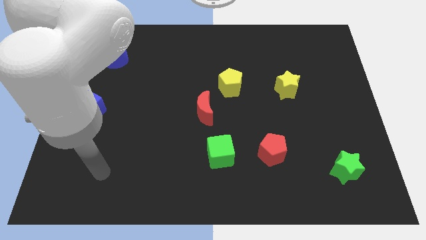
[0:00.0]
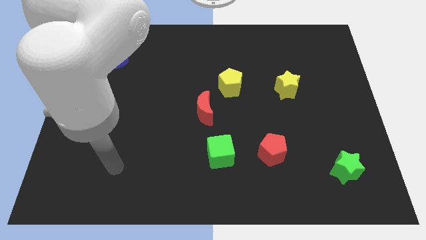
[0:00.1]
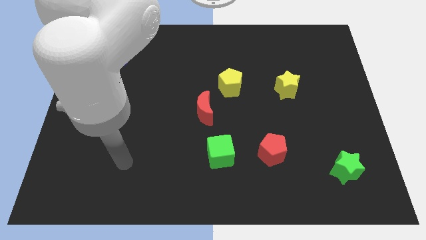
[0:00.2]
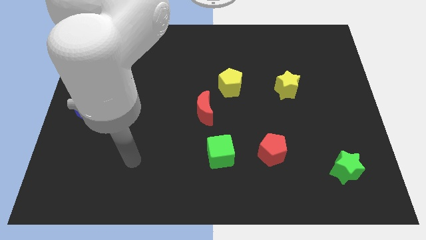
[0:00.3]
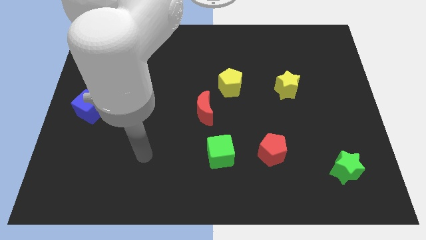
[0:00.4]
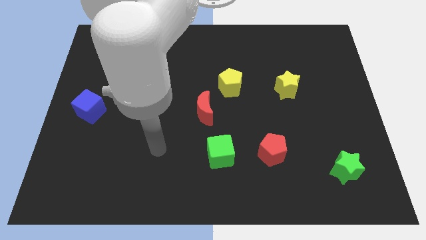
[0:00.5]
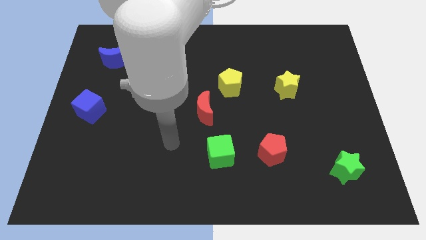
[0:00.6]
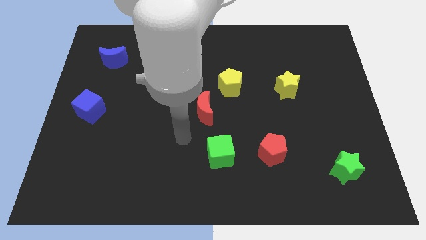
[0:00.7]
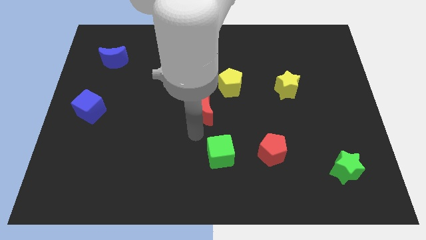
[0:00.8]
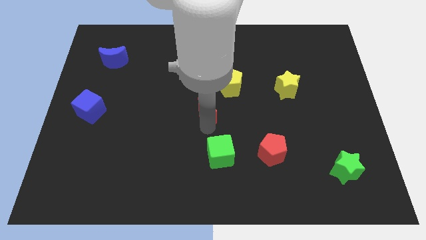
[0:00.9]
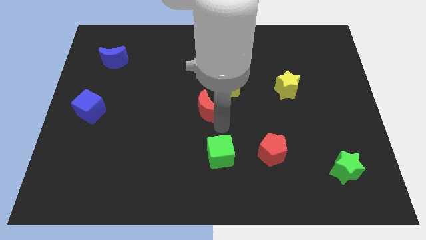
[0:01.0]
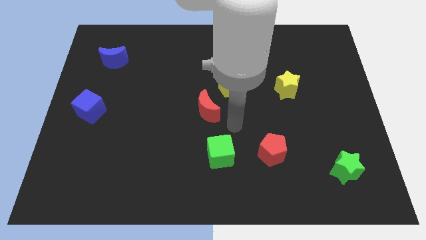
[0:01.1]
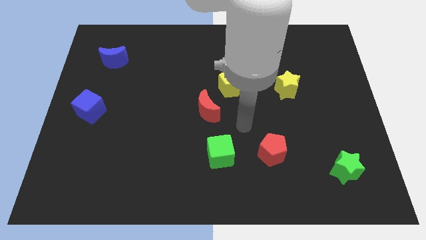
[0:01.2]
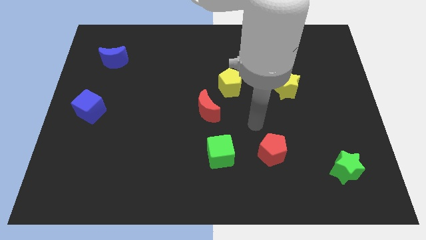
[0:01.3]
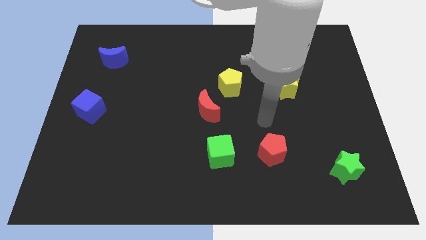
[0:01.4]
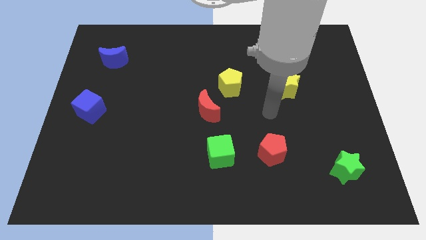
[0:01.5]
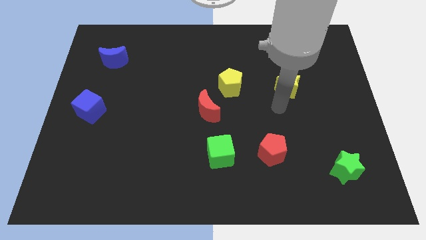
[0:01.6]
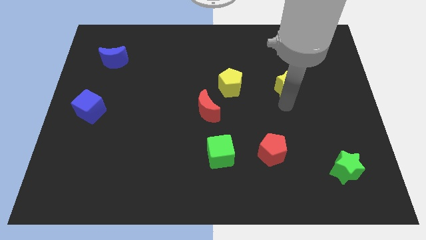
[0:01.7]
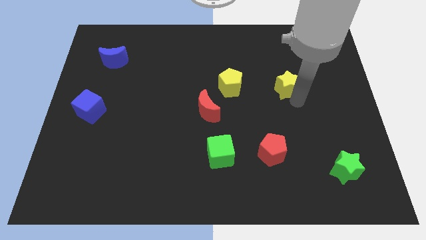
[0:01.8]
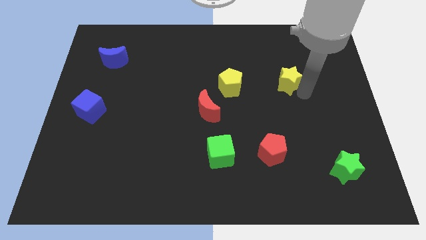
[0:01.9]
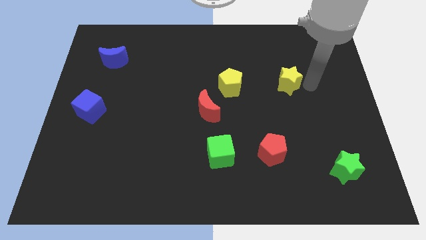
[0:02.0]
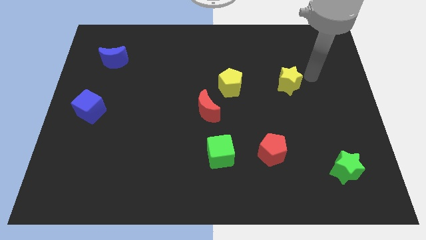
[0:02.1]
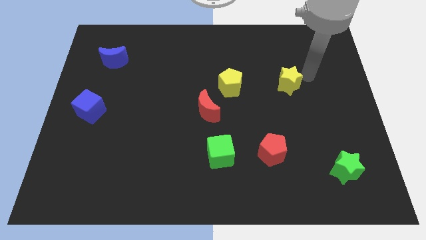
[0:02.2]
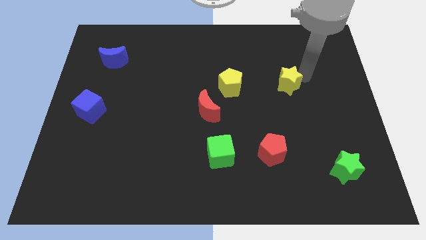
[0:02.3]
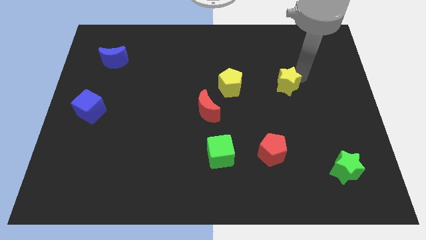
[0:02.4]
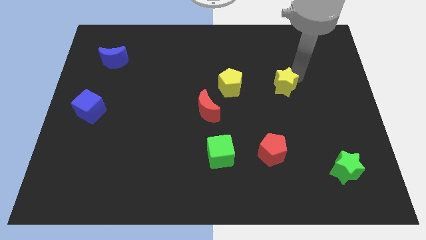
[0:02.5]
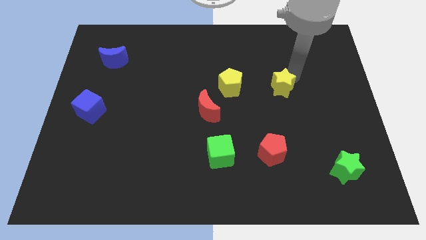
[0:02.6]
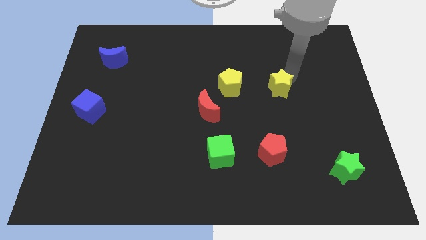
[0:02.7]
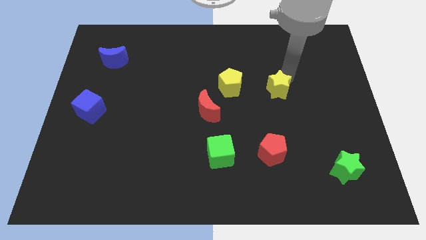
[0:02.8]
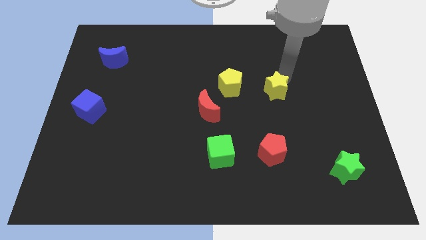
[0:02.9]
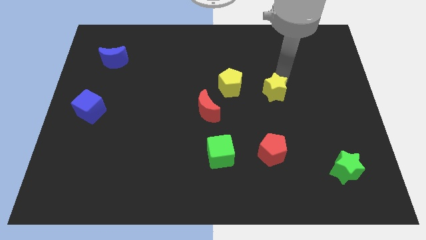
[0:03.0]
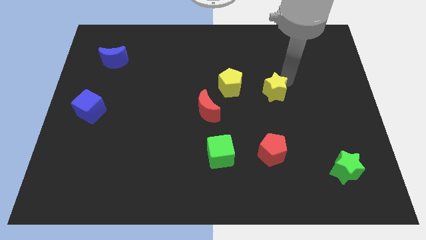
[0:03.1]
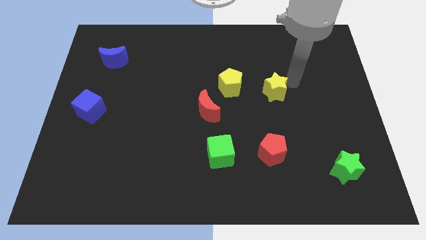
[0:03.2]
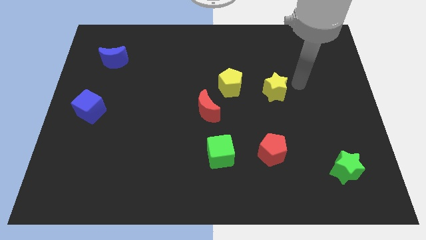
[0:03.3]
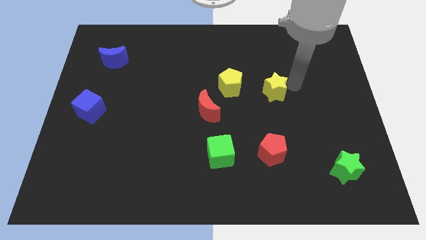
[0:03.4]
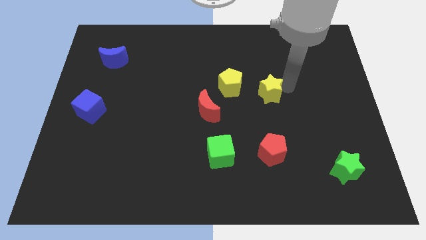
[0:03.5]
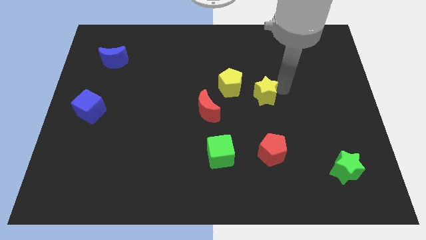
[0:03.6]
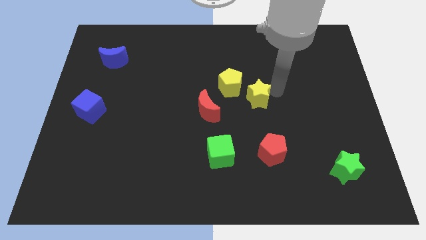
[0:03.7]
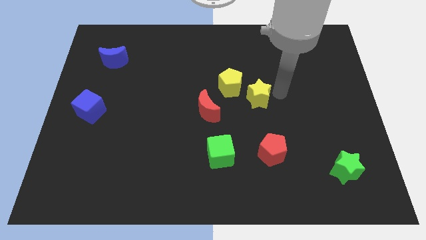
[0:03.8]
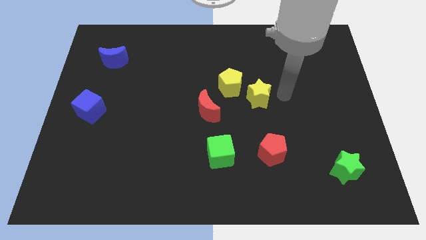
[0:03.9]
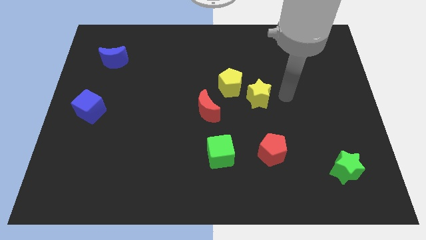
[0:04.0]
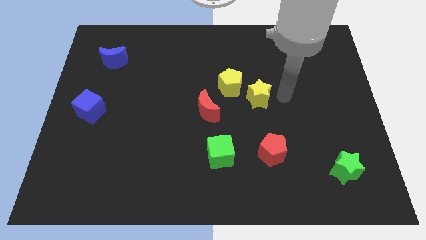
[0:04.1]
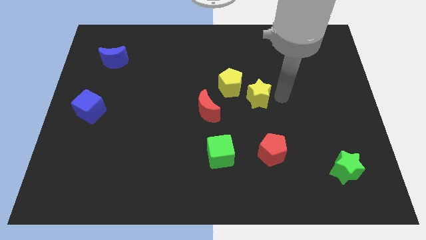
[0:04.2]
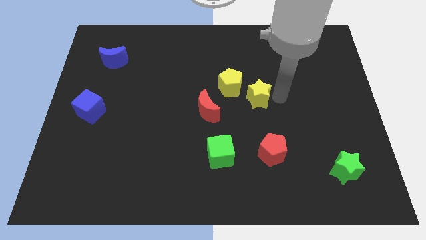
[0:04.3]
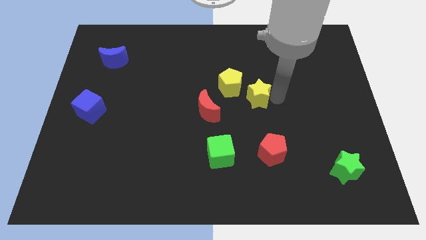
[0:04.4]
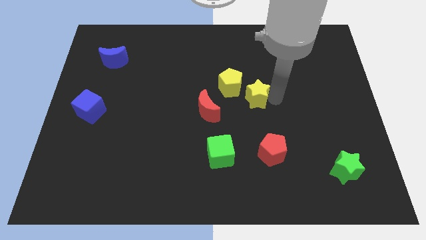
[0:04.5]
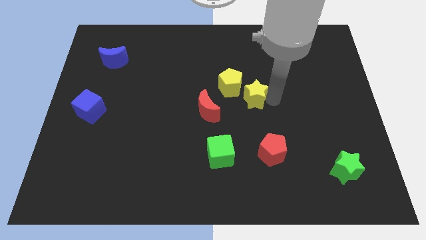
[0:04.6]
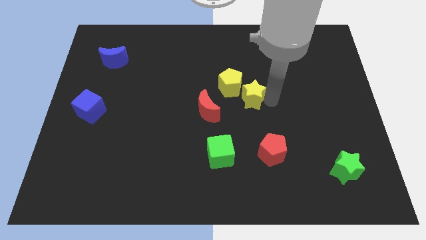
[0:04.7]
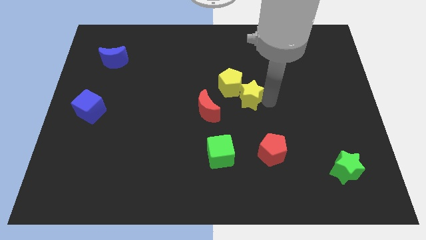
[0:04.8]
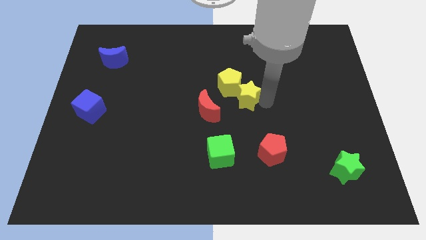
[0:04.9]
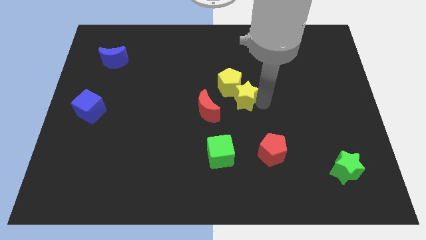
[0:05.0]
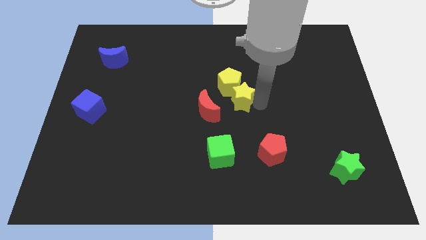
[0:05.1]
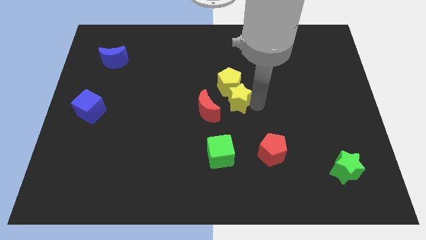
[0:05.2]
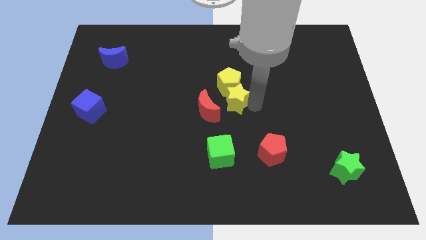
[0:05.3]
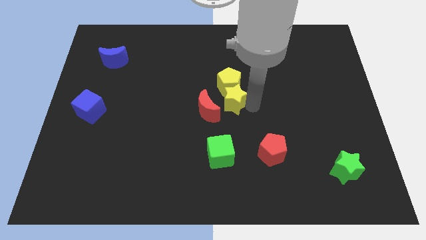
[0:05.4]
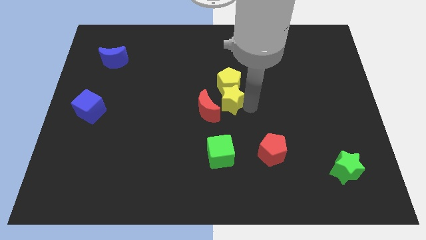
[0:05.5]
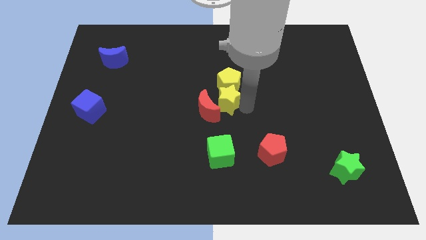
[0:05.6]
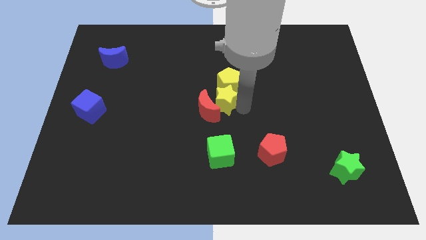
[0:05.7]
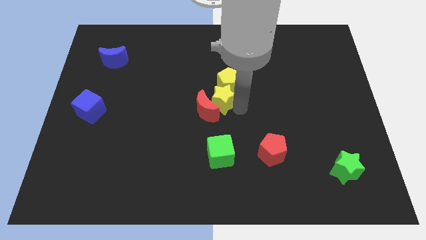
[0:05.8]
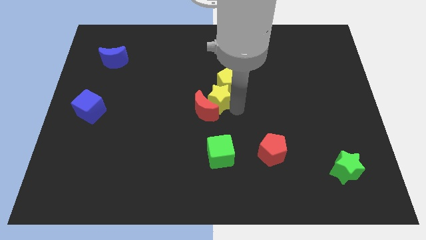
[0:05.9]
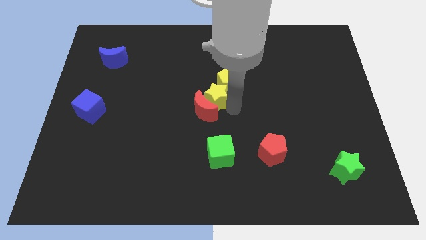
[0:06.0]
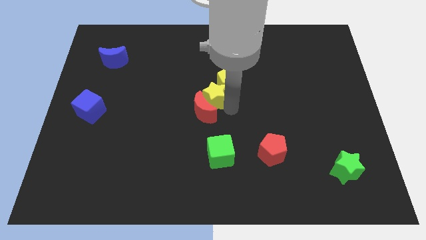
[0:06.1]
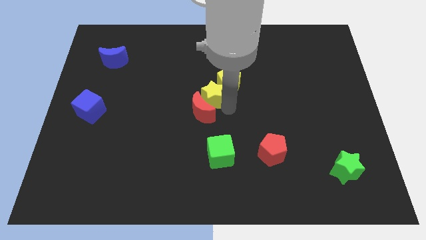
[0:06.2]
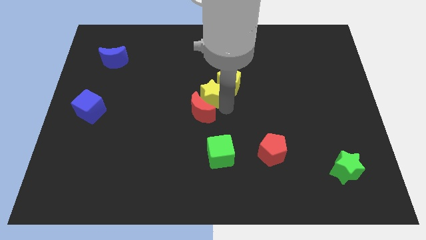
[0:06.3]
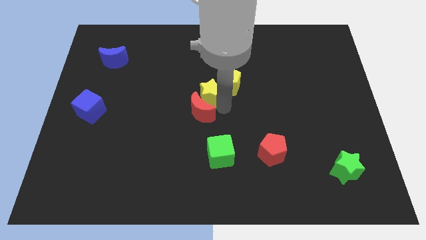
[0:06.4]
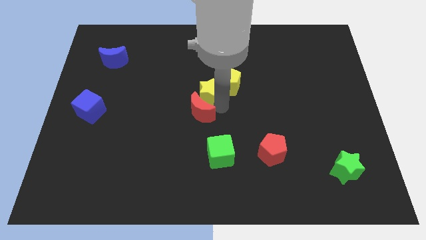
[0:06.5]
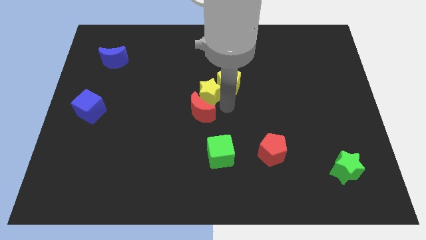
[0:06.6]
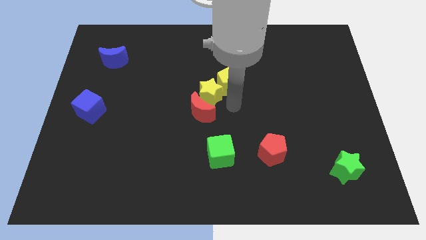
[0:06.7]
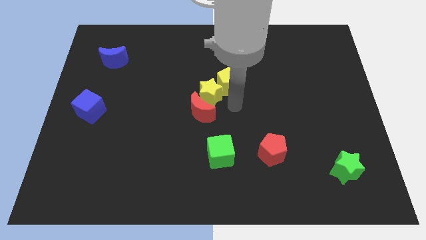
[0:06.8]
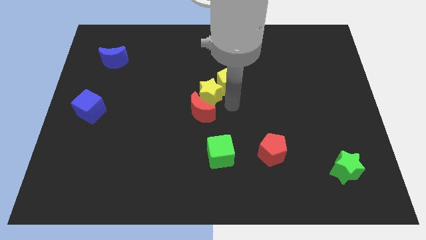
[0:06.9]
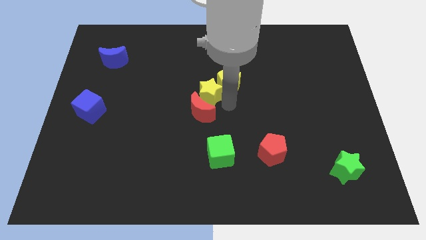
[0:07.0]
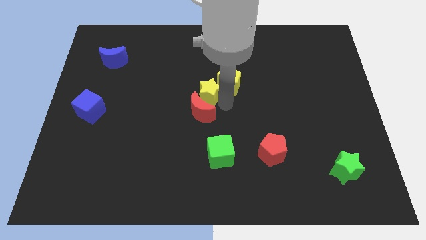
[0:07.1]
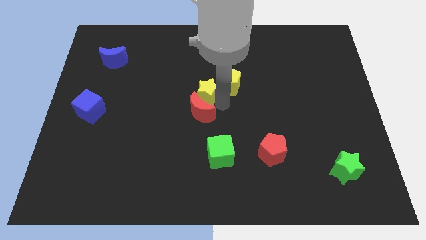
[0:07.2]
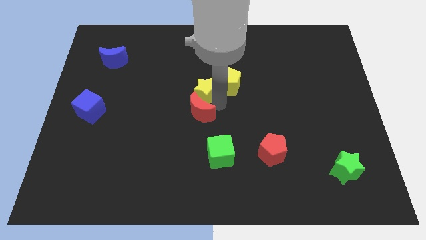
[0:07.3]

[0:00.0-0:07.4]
push the yellow star to the left

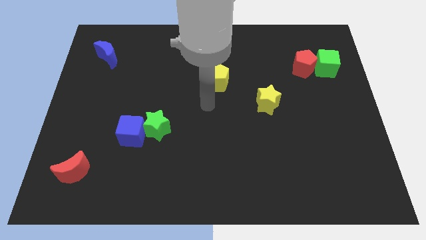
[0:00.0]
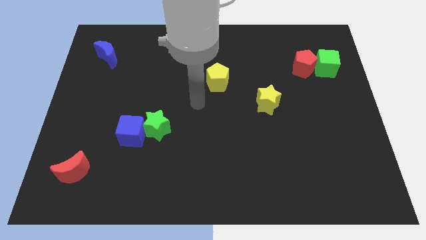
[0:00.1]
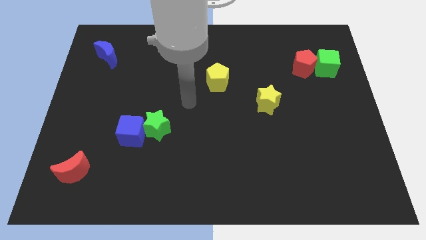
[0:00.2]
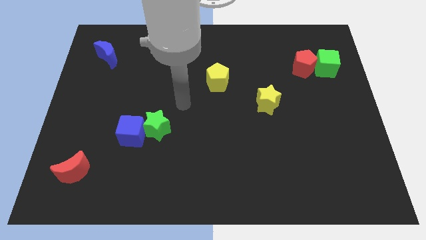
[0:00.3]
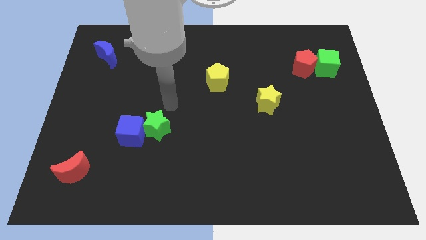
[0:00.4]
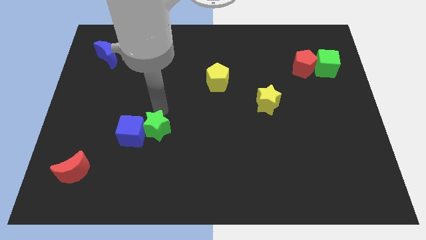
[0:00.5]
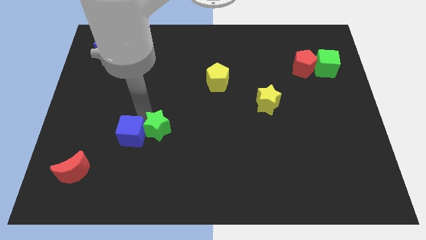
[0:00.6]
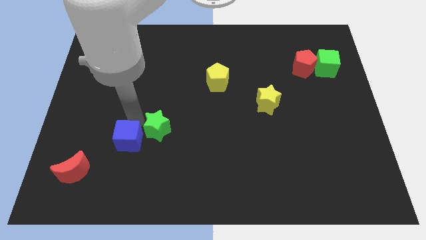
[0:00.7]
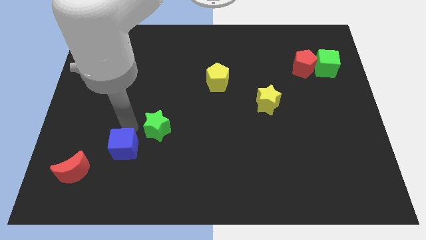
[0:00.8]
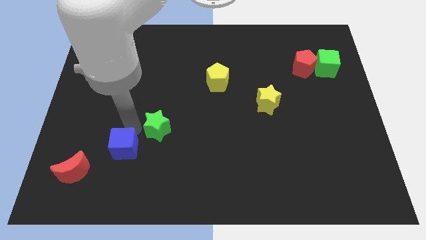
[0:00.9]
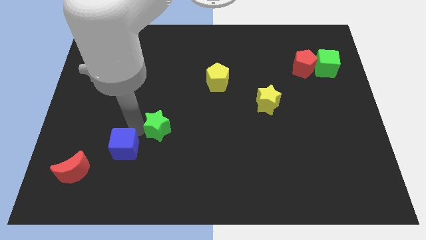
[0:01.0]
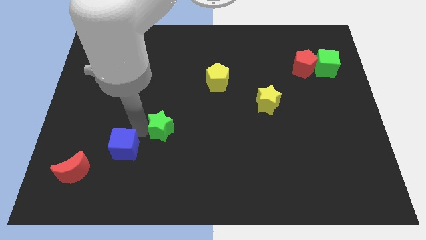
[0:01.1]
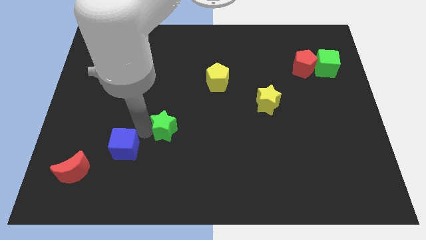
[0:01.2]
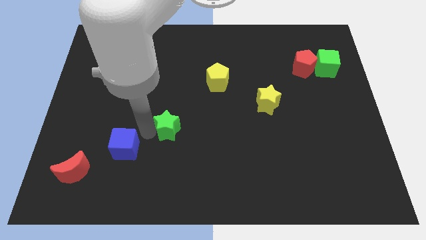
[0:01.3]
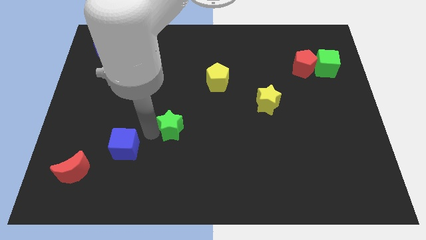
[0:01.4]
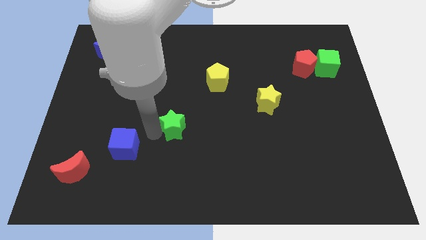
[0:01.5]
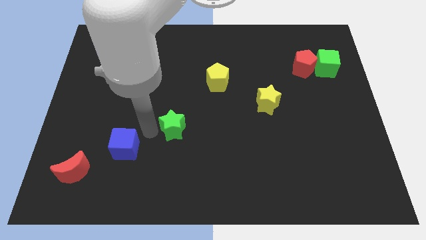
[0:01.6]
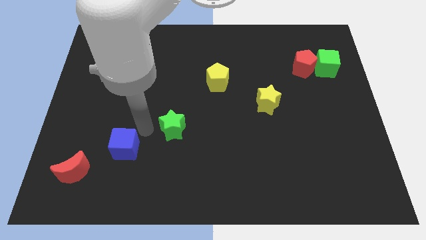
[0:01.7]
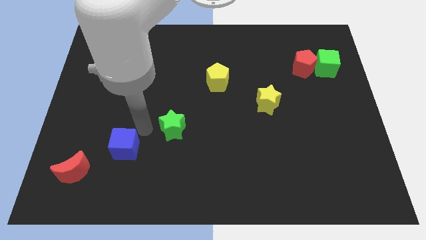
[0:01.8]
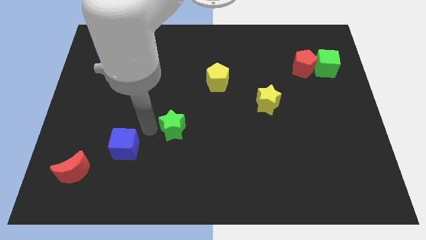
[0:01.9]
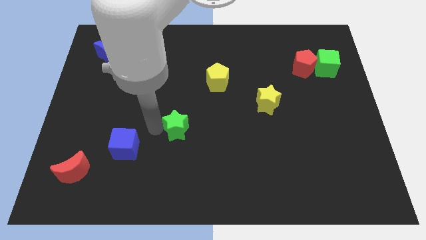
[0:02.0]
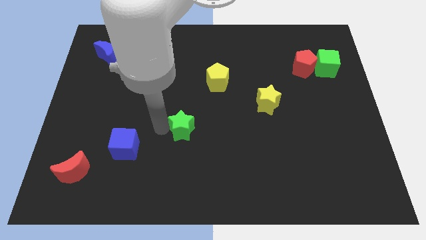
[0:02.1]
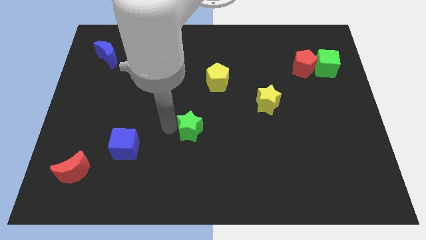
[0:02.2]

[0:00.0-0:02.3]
slightly slide the green star right
